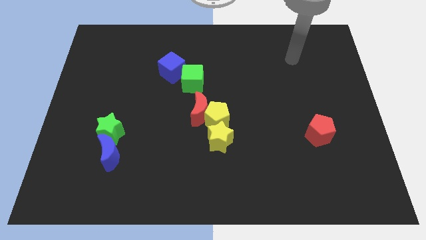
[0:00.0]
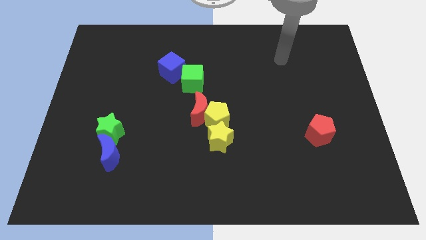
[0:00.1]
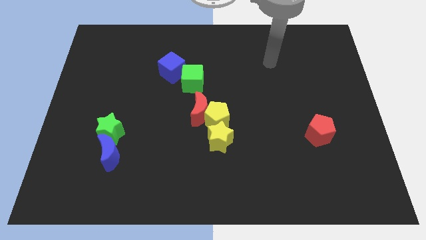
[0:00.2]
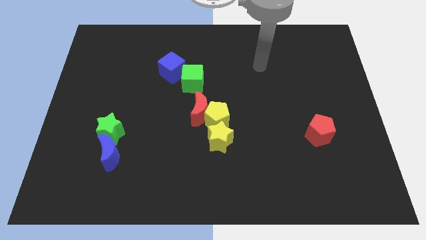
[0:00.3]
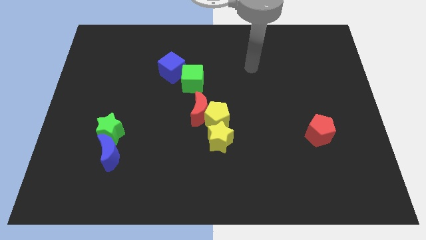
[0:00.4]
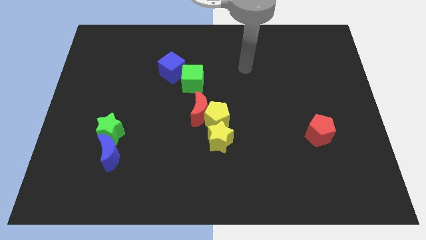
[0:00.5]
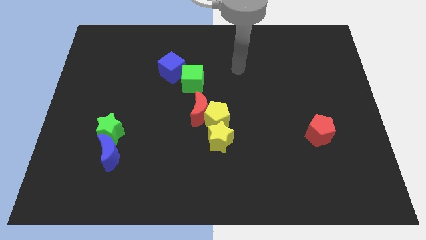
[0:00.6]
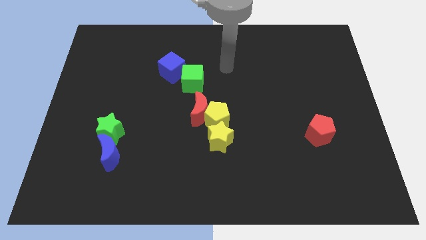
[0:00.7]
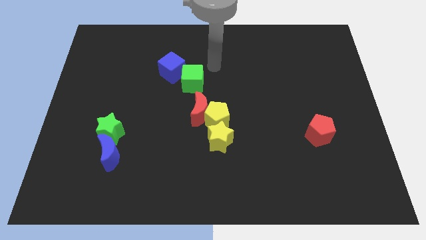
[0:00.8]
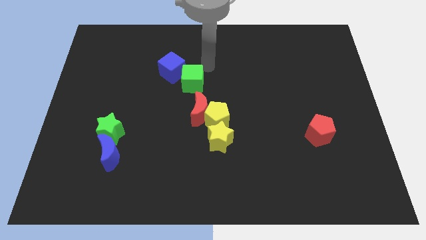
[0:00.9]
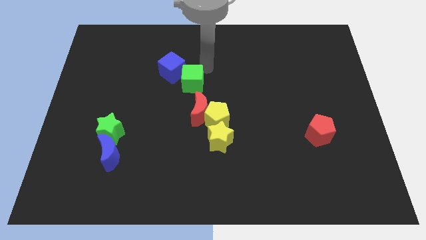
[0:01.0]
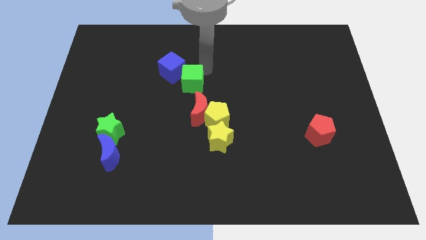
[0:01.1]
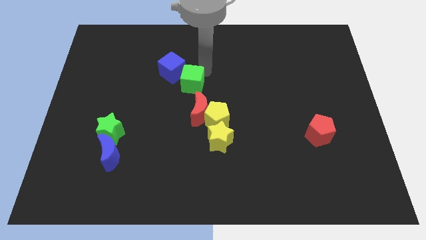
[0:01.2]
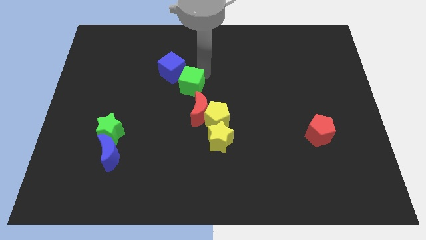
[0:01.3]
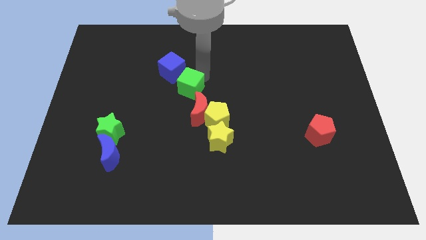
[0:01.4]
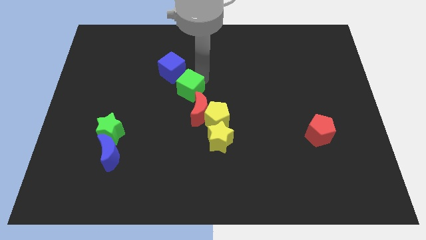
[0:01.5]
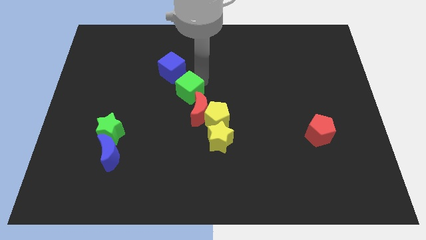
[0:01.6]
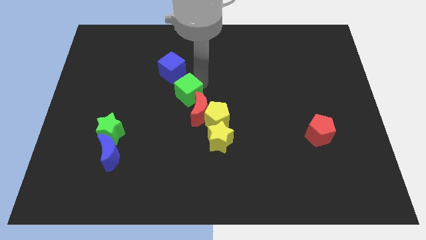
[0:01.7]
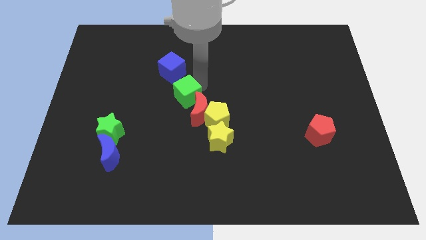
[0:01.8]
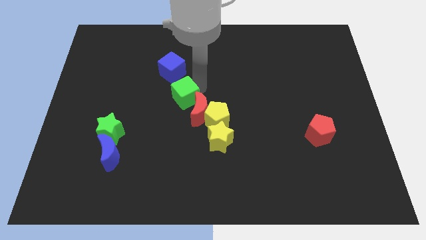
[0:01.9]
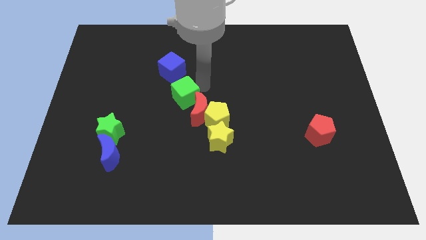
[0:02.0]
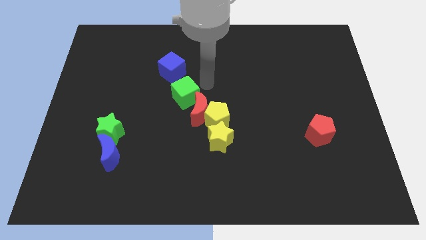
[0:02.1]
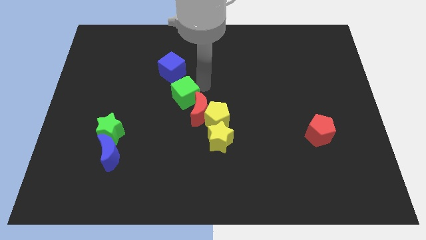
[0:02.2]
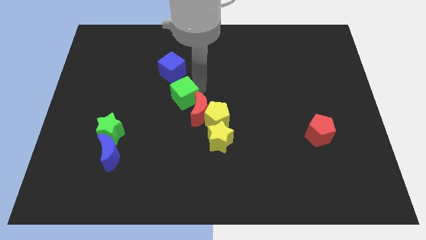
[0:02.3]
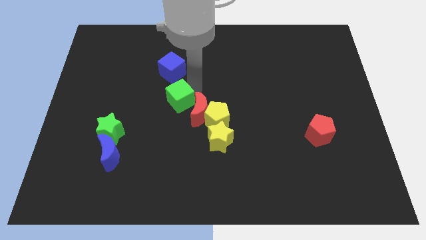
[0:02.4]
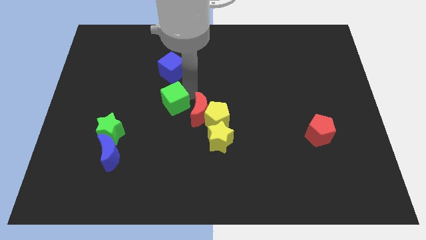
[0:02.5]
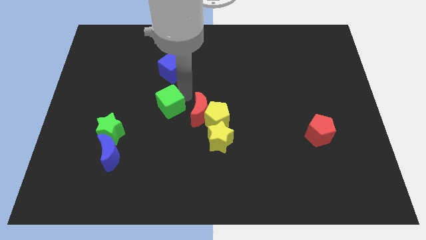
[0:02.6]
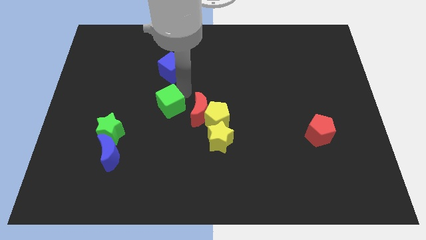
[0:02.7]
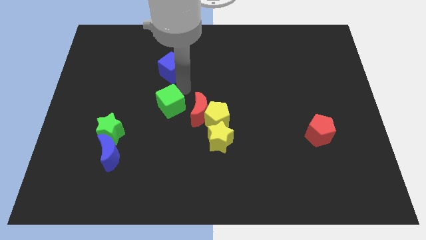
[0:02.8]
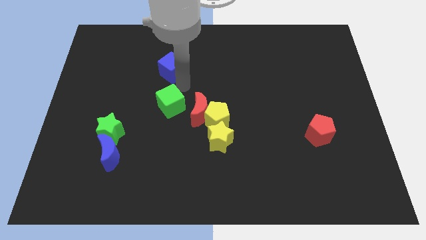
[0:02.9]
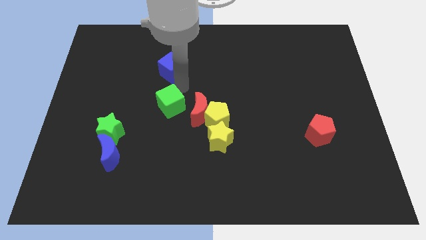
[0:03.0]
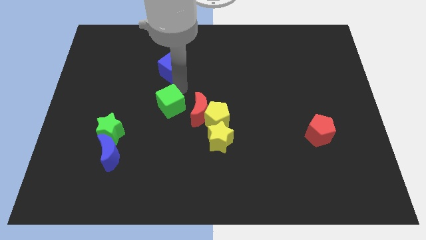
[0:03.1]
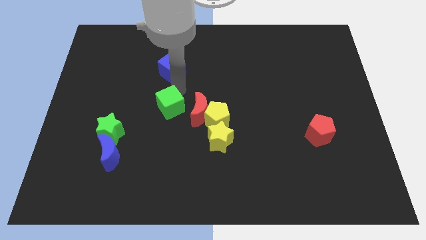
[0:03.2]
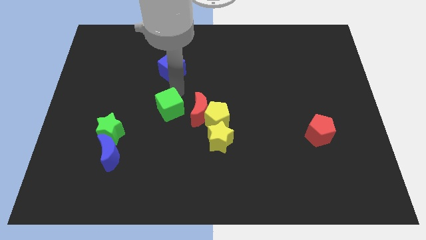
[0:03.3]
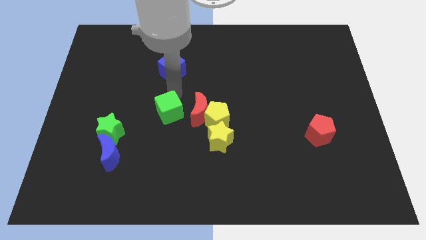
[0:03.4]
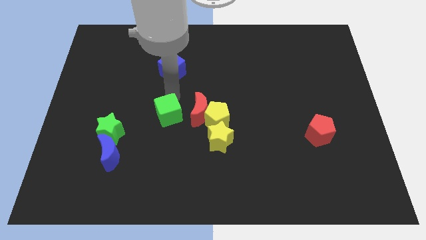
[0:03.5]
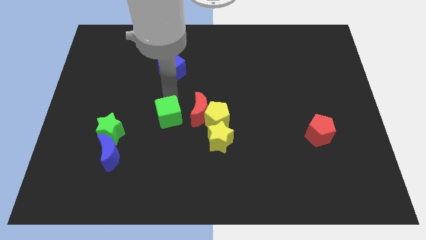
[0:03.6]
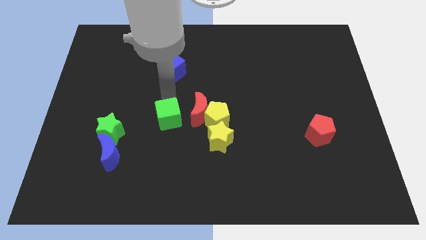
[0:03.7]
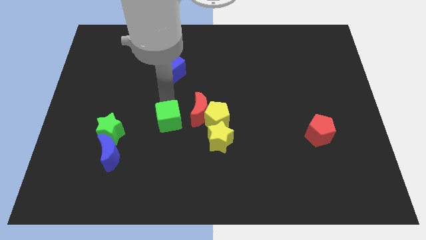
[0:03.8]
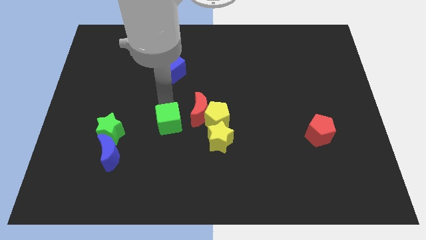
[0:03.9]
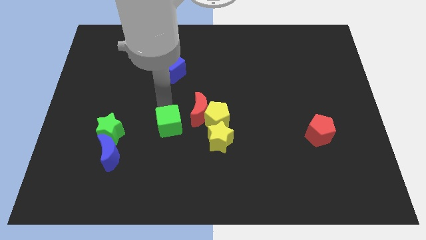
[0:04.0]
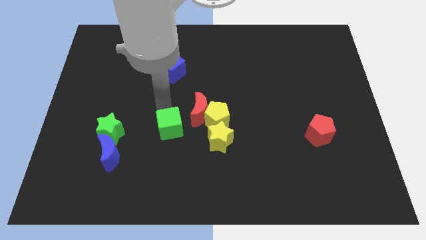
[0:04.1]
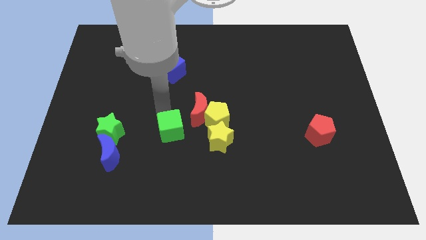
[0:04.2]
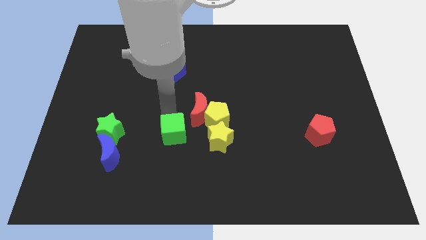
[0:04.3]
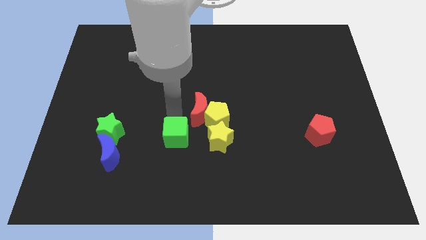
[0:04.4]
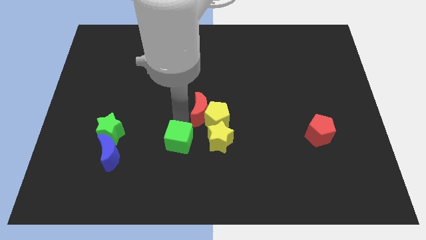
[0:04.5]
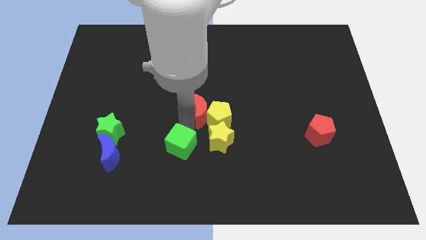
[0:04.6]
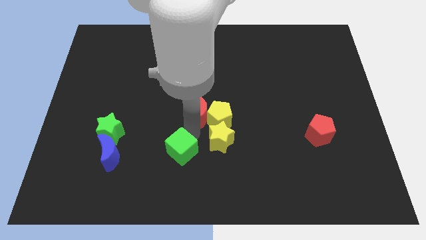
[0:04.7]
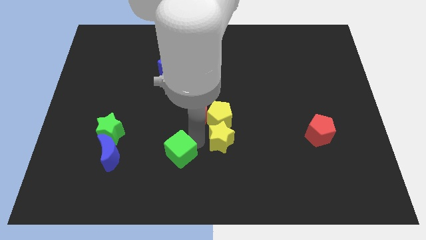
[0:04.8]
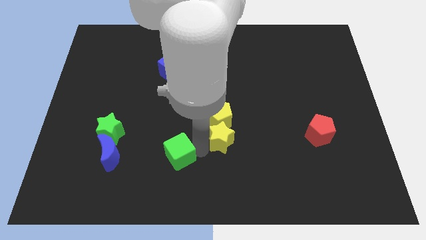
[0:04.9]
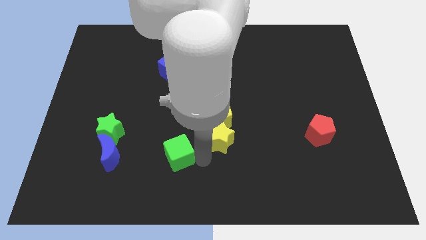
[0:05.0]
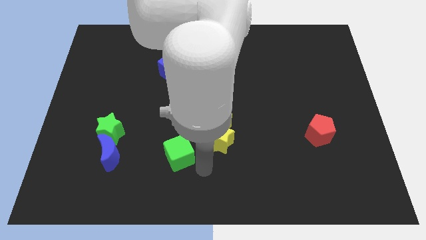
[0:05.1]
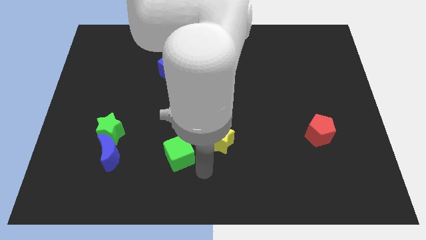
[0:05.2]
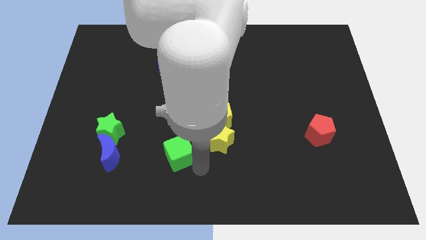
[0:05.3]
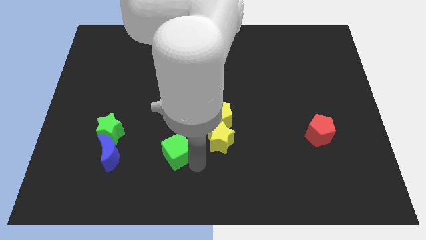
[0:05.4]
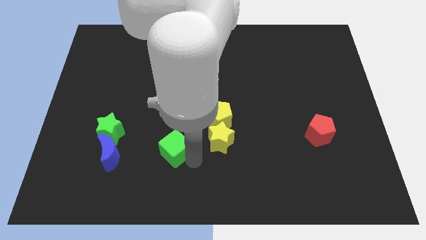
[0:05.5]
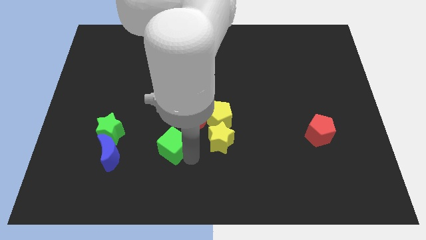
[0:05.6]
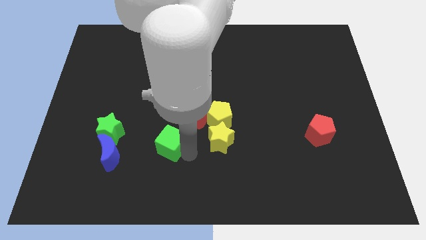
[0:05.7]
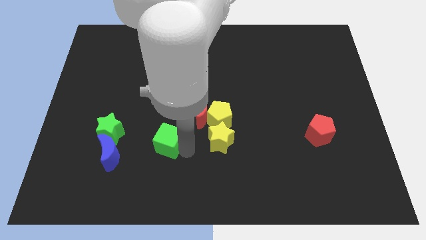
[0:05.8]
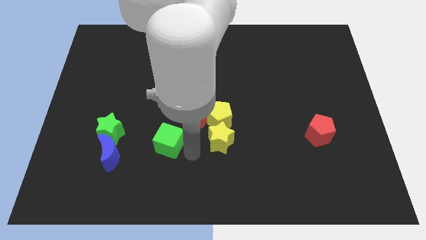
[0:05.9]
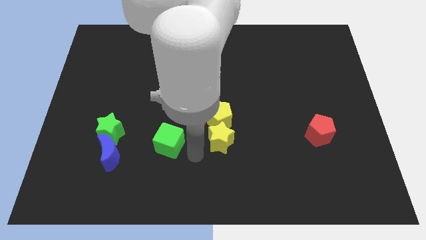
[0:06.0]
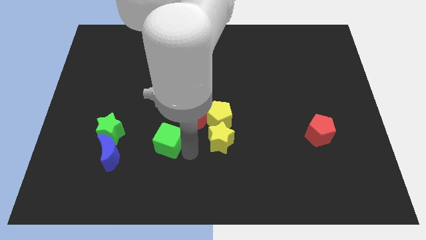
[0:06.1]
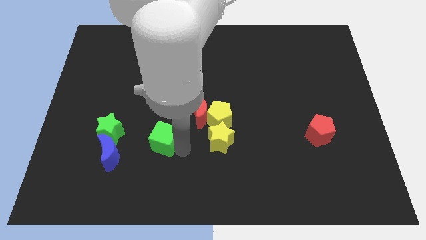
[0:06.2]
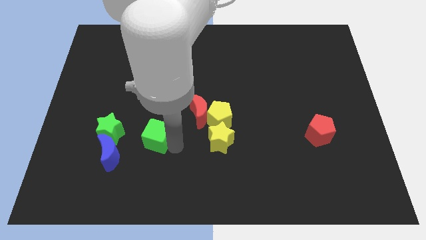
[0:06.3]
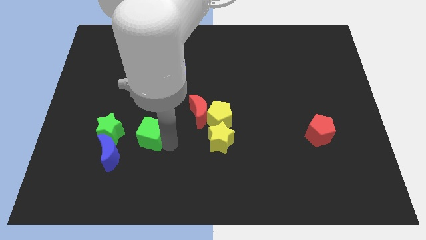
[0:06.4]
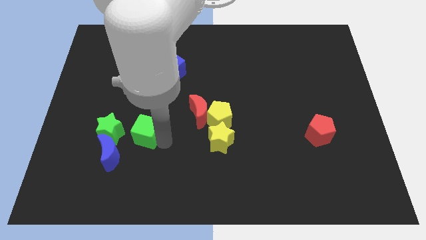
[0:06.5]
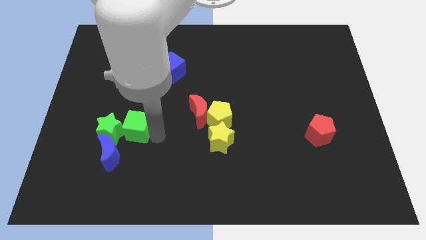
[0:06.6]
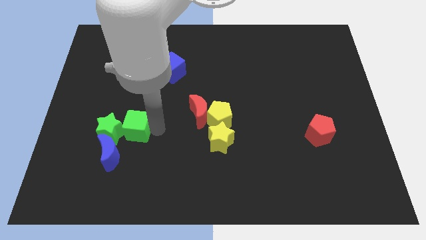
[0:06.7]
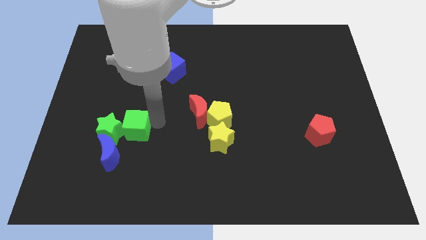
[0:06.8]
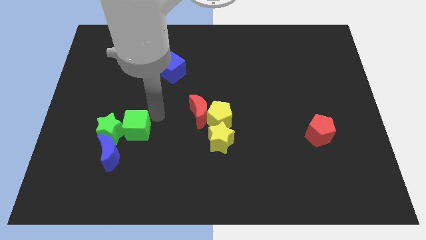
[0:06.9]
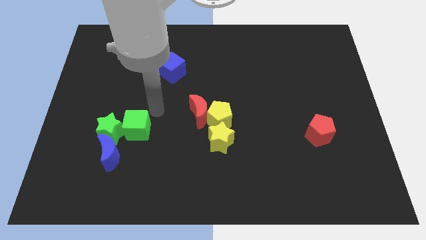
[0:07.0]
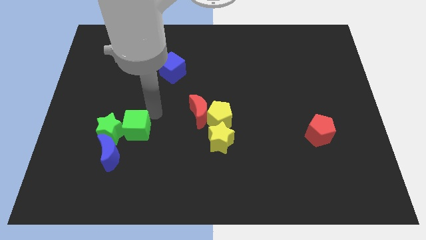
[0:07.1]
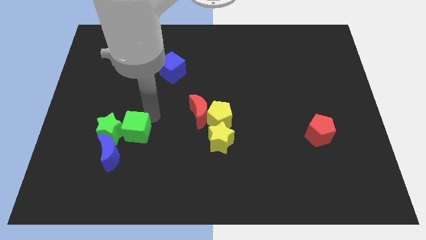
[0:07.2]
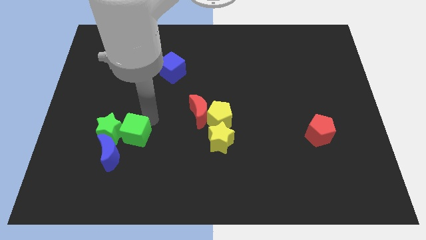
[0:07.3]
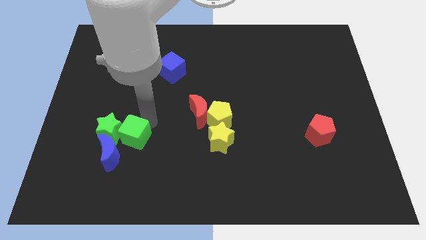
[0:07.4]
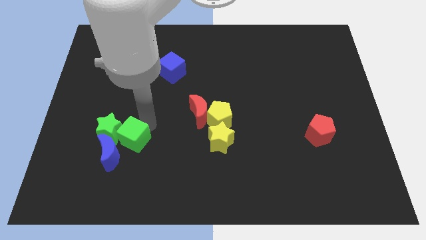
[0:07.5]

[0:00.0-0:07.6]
push the green cube to the blue moon
